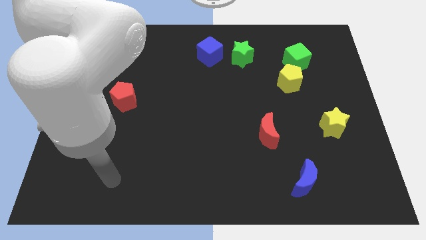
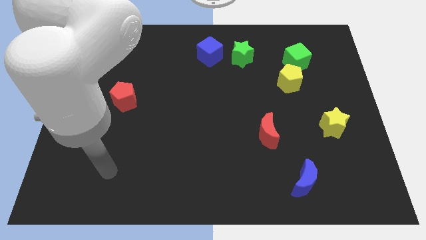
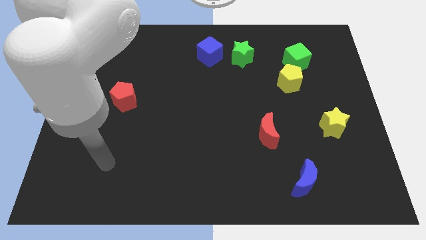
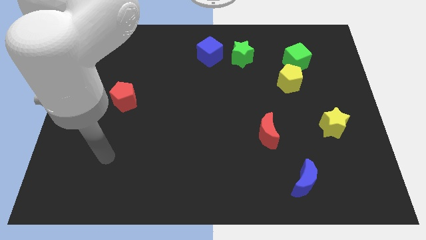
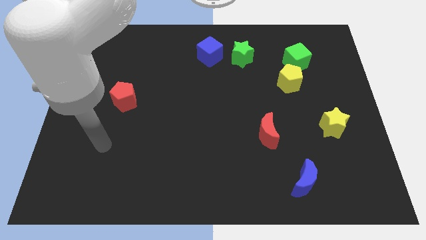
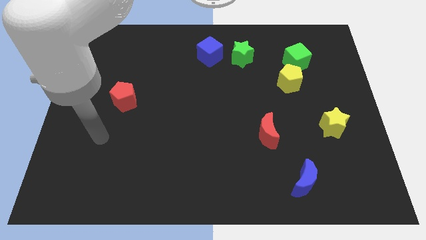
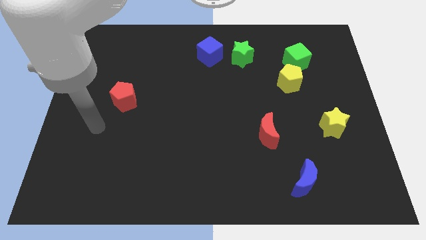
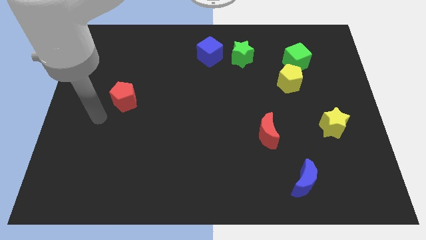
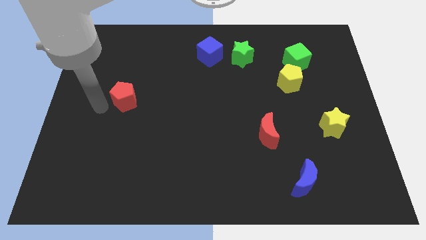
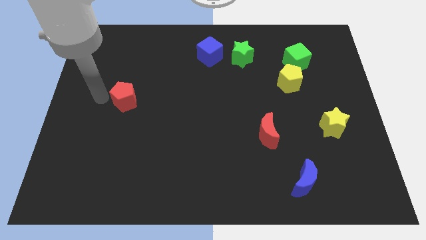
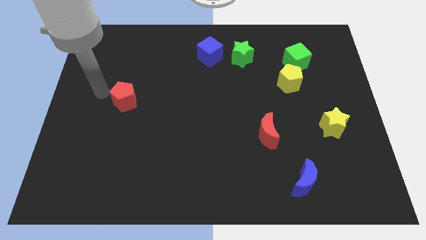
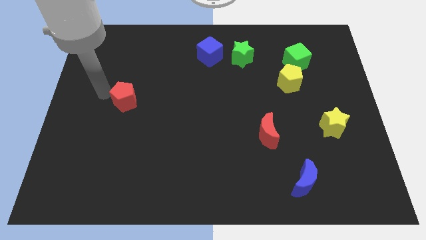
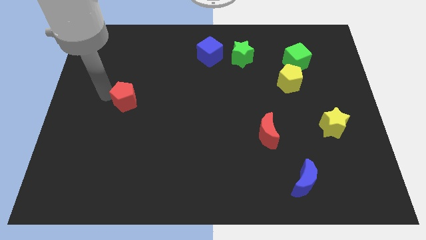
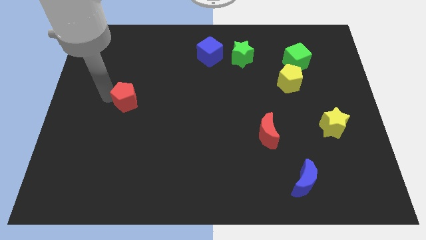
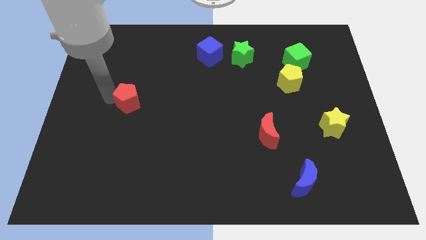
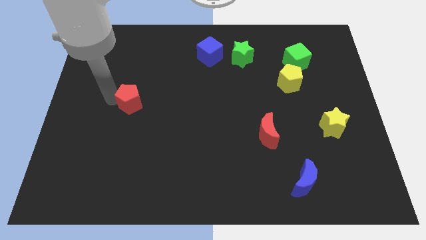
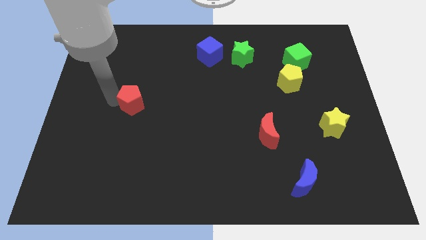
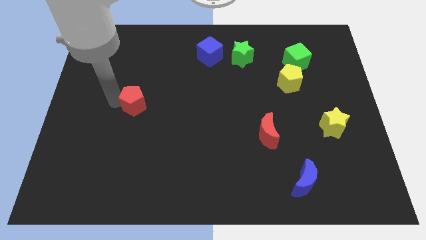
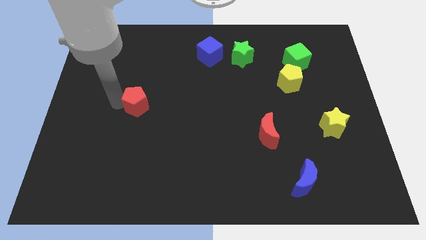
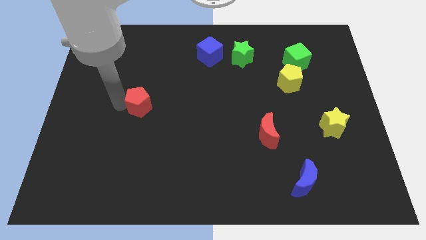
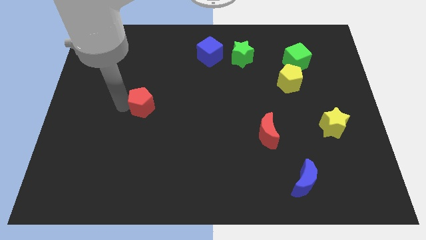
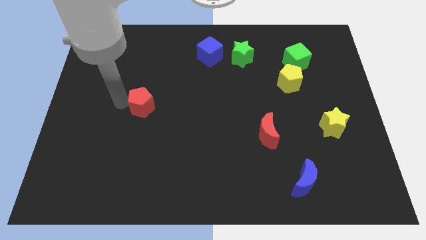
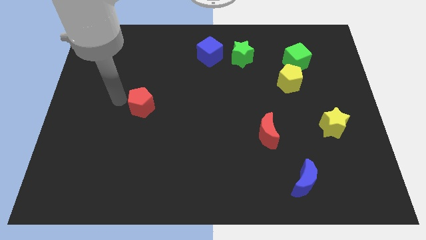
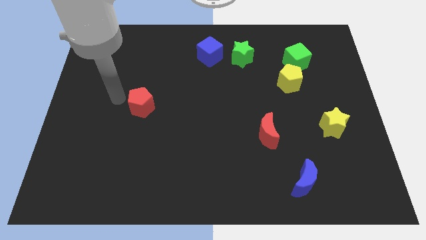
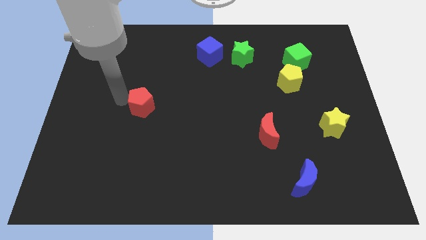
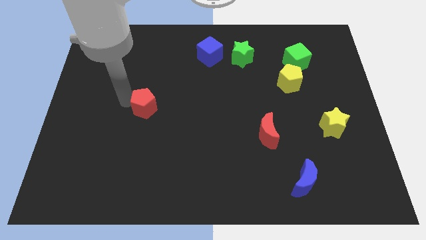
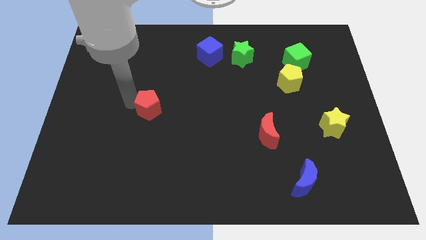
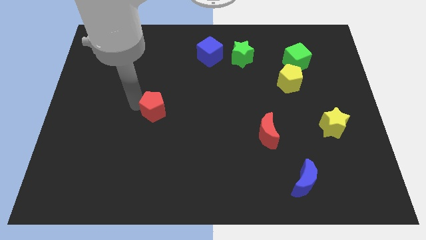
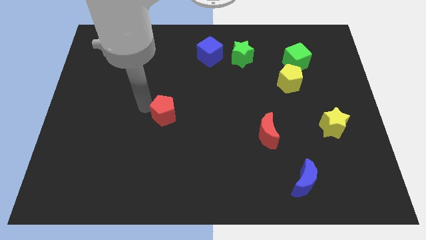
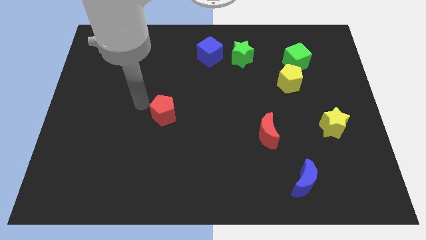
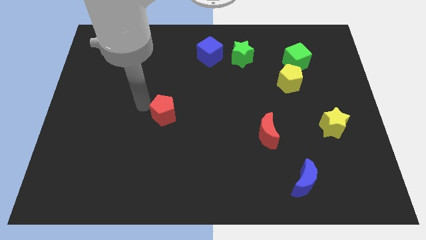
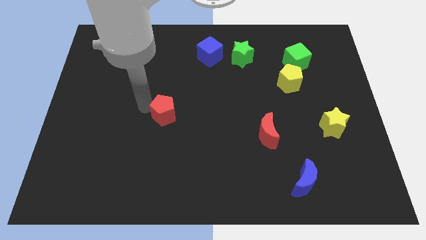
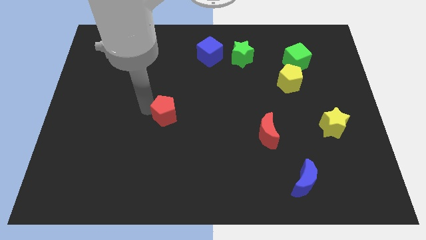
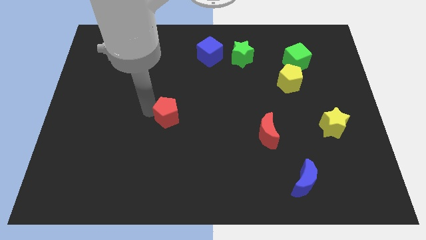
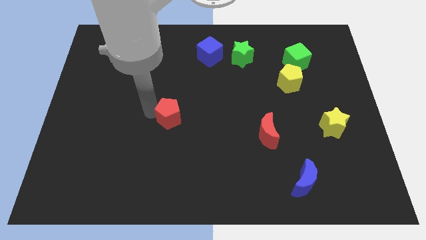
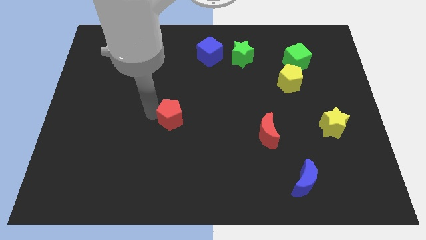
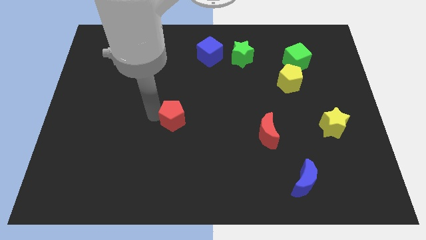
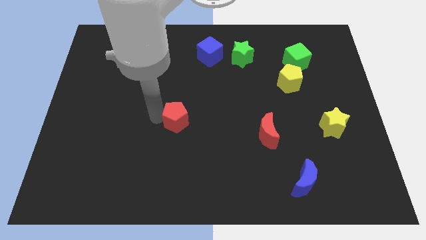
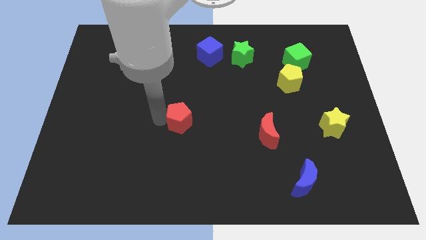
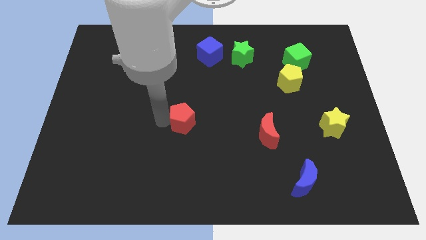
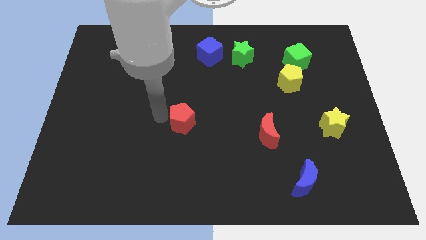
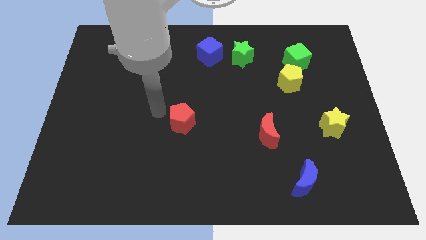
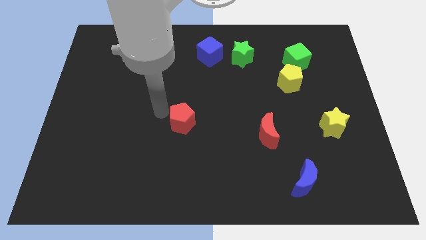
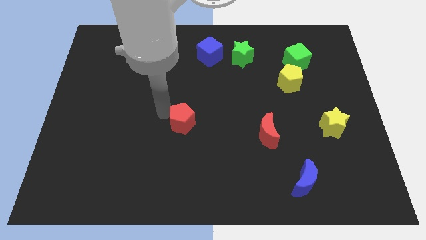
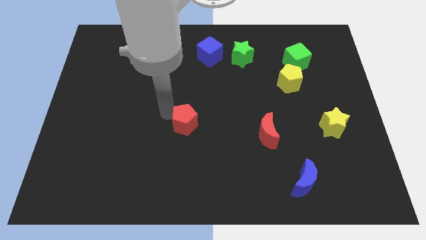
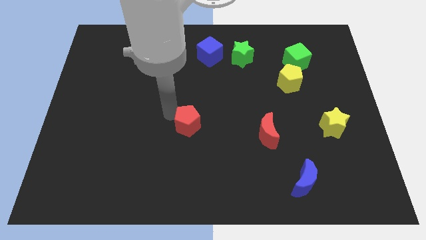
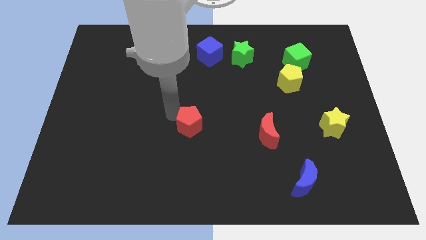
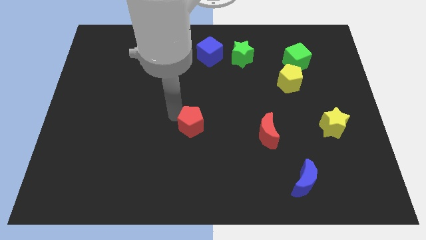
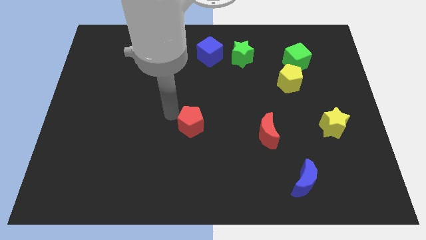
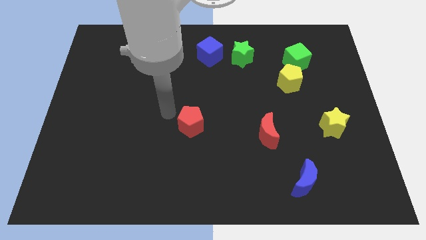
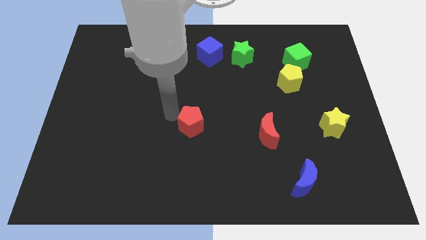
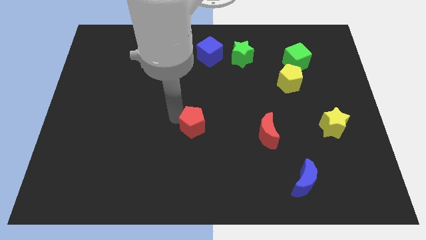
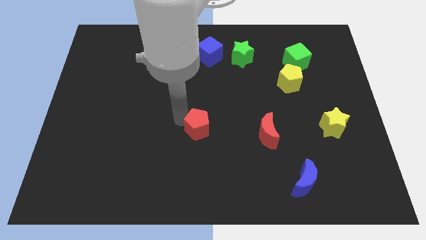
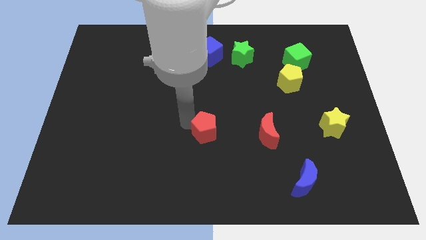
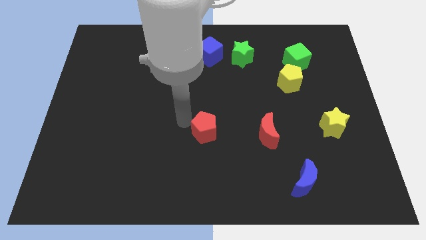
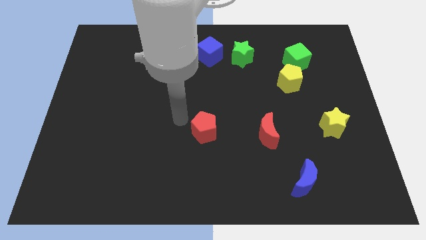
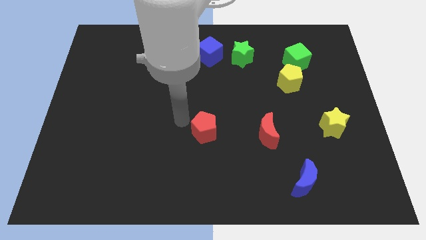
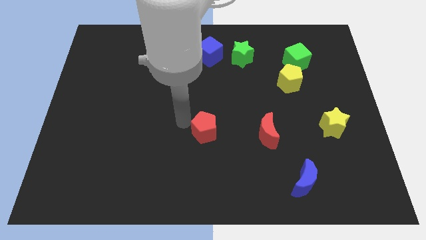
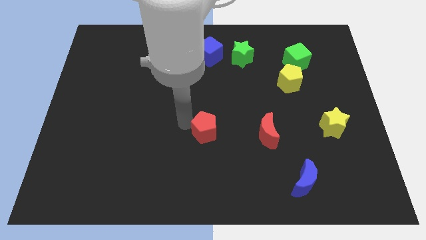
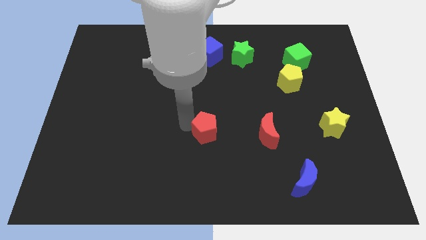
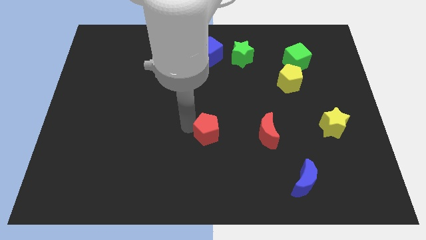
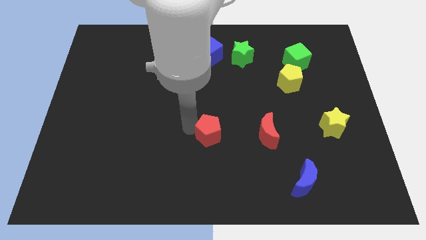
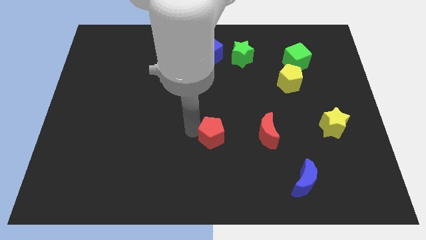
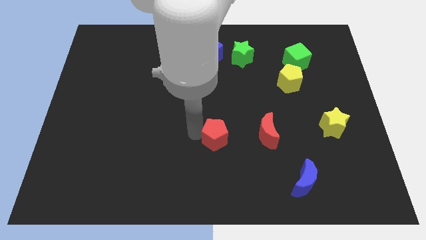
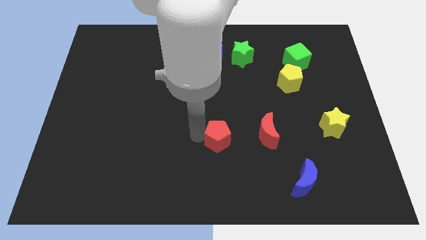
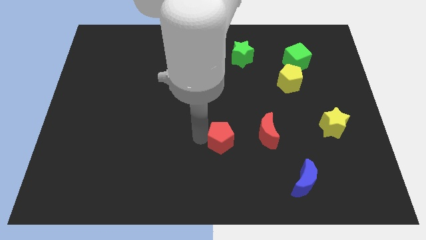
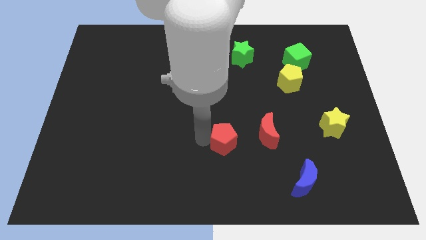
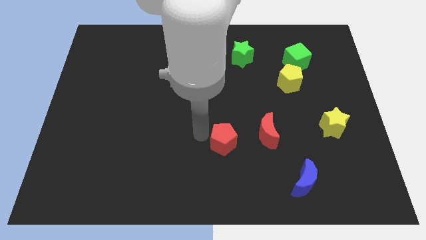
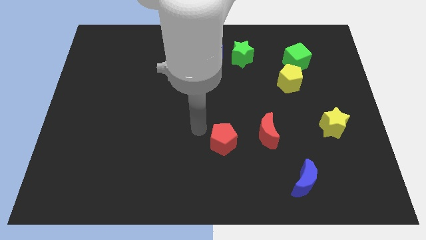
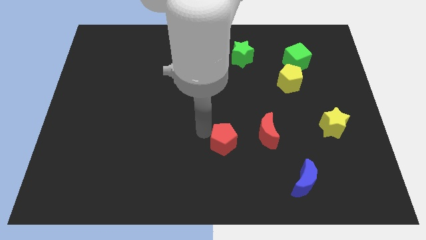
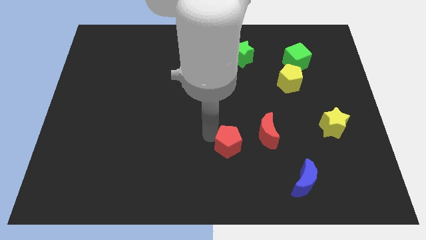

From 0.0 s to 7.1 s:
put the red pentagon to the bottom left side of the red moon

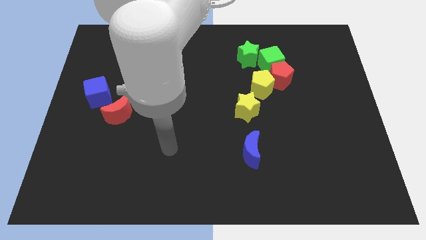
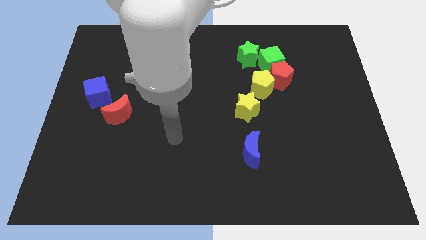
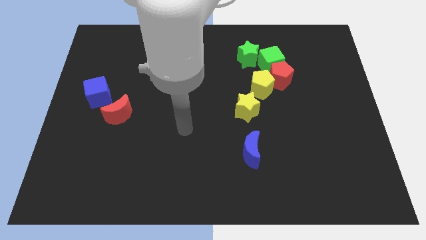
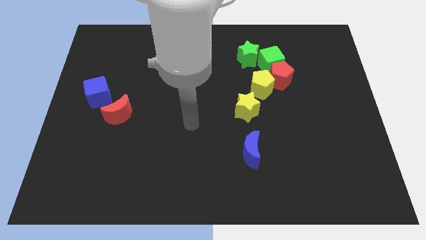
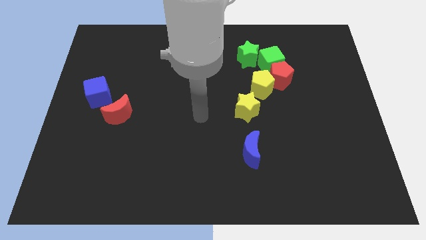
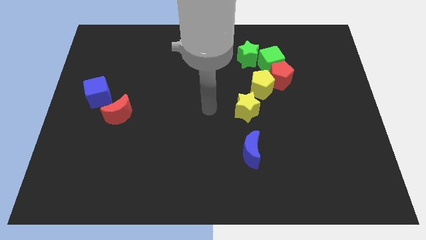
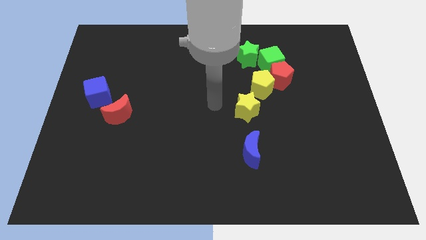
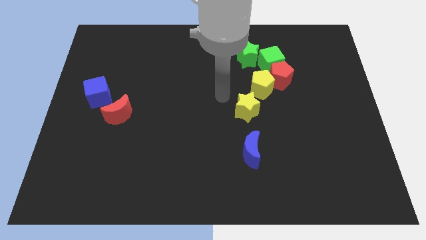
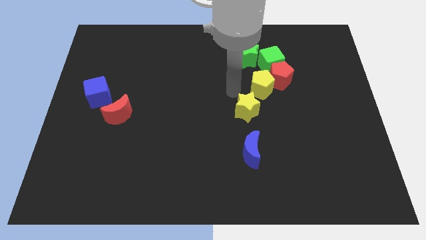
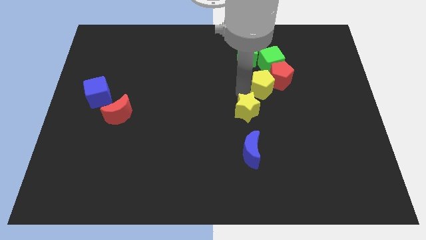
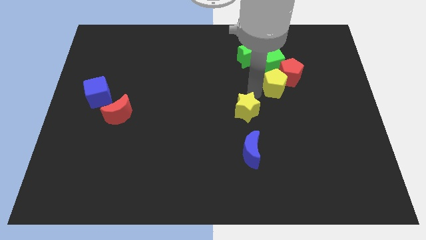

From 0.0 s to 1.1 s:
push the red pentagon right of the green cube
